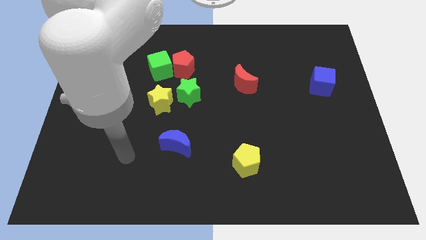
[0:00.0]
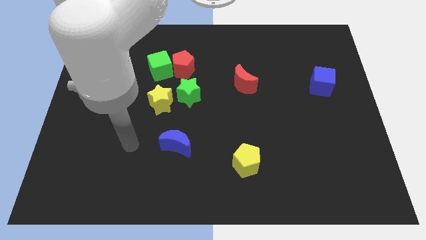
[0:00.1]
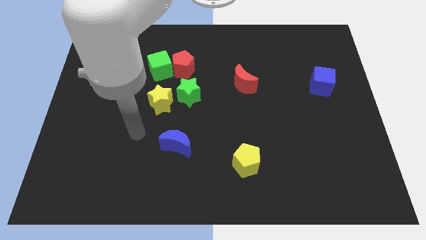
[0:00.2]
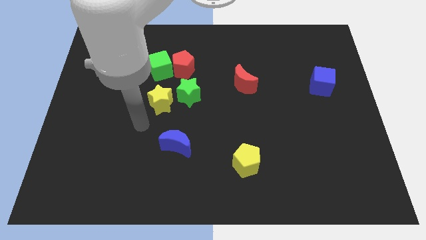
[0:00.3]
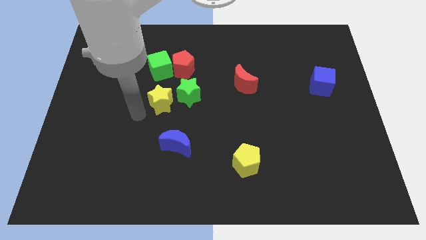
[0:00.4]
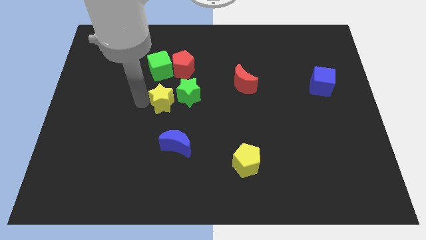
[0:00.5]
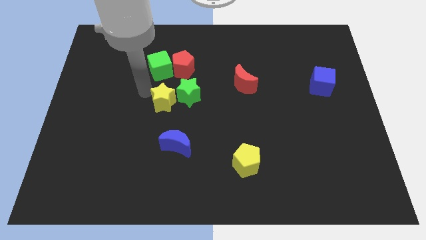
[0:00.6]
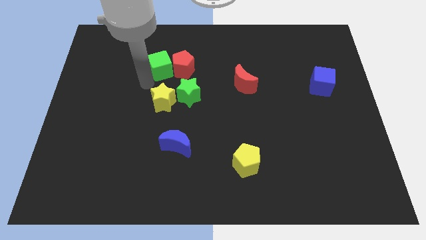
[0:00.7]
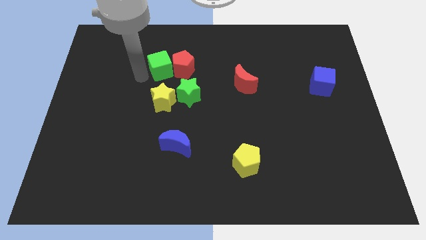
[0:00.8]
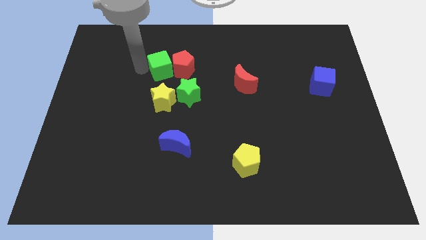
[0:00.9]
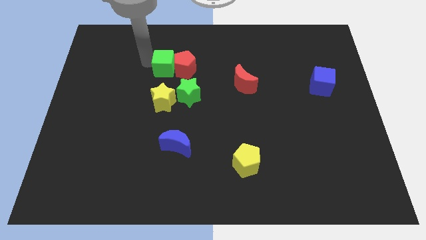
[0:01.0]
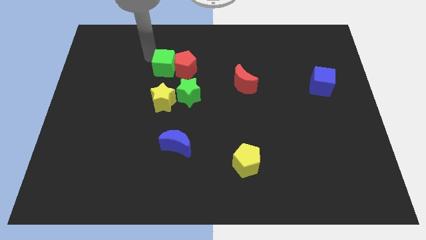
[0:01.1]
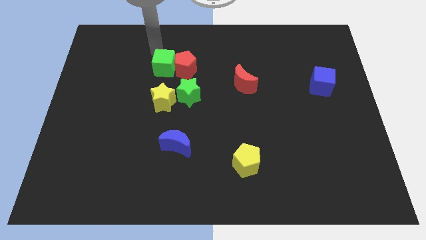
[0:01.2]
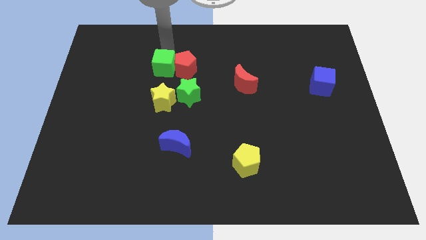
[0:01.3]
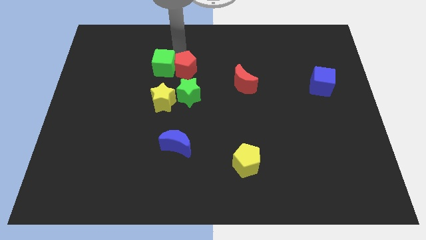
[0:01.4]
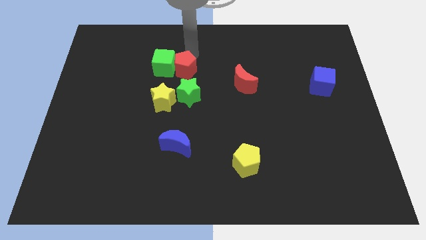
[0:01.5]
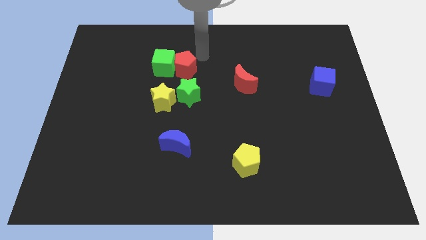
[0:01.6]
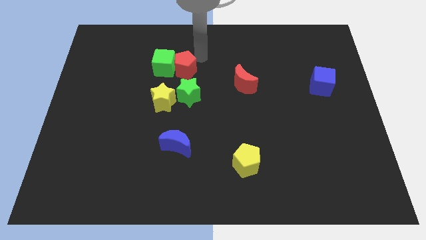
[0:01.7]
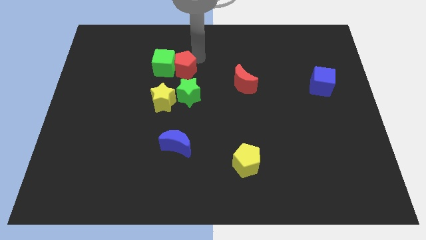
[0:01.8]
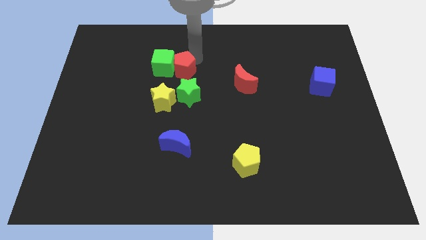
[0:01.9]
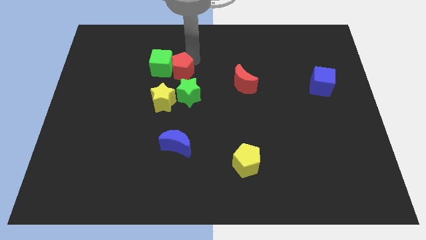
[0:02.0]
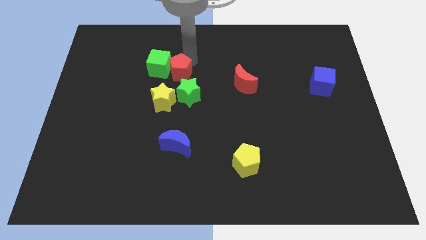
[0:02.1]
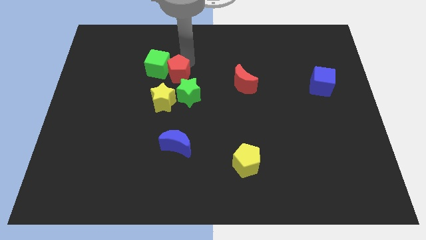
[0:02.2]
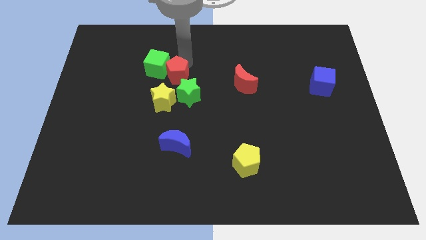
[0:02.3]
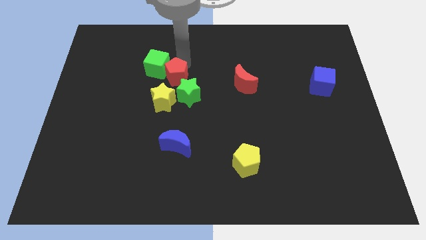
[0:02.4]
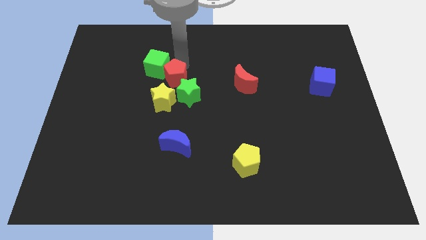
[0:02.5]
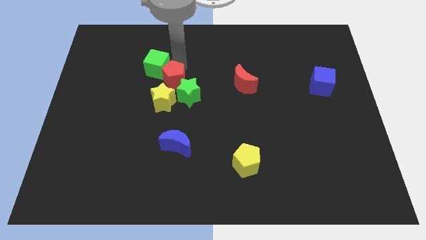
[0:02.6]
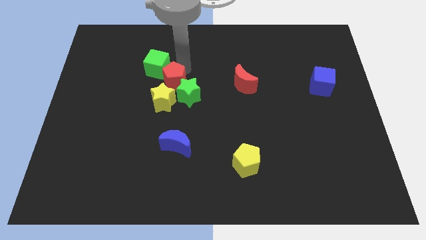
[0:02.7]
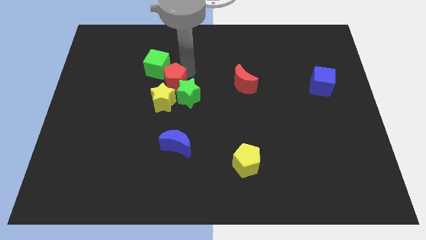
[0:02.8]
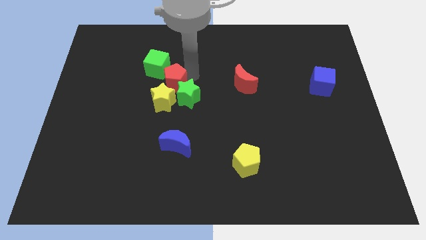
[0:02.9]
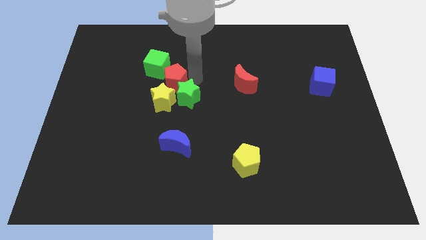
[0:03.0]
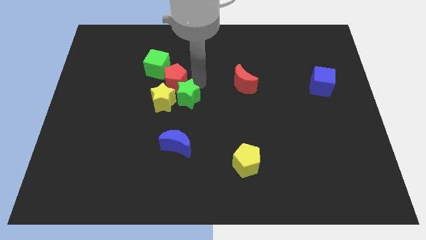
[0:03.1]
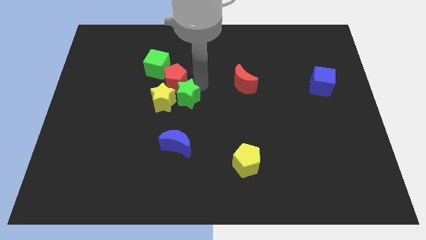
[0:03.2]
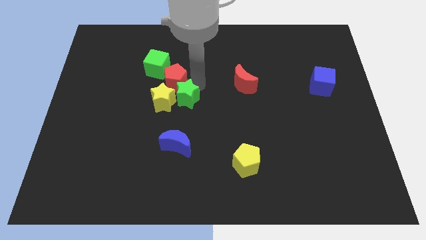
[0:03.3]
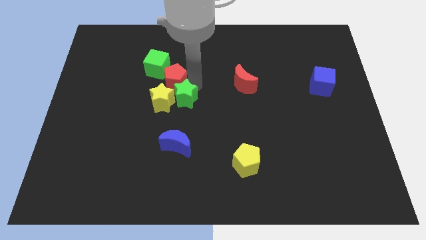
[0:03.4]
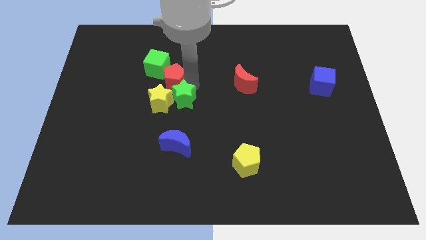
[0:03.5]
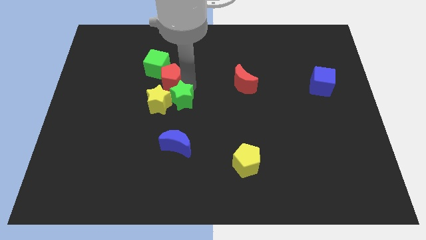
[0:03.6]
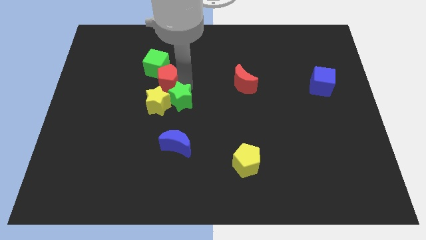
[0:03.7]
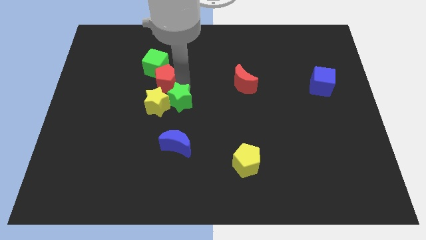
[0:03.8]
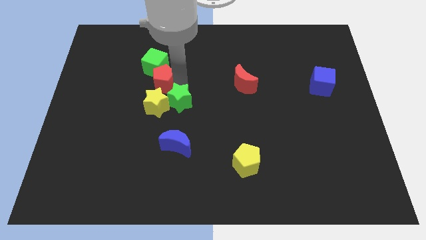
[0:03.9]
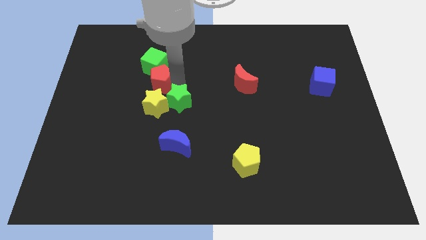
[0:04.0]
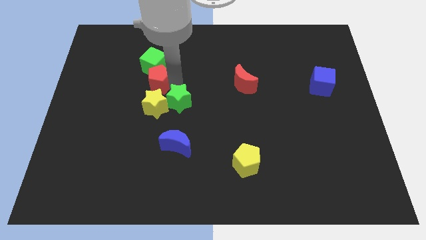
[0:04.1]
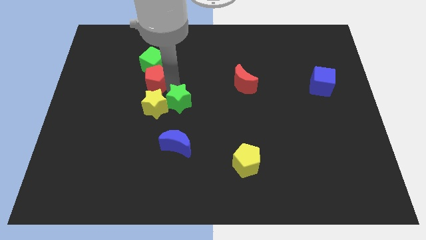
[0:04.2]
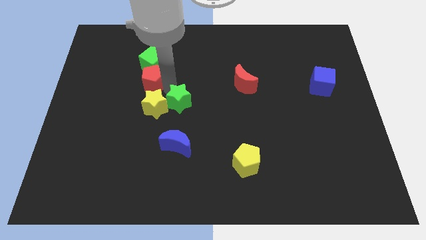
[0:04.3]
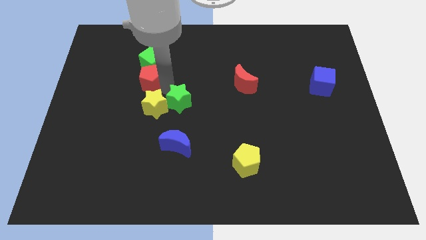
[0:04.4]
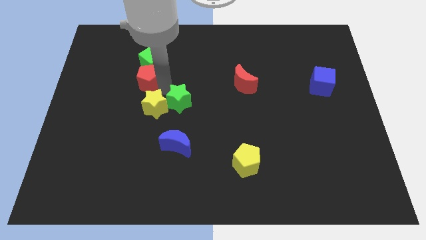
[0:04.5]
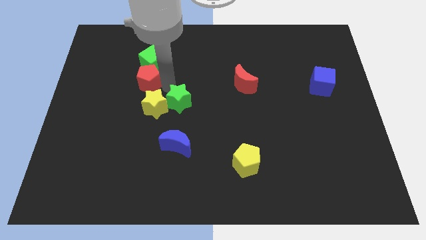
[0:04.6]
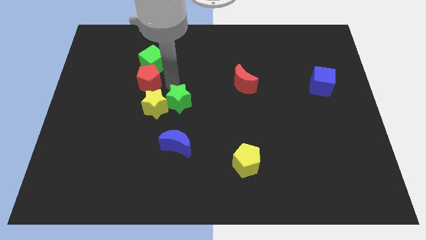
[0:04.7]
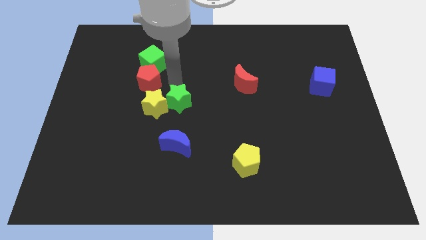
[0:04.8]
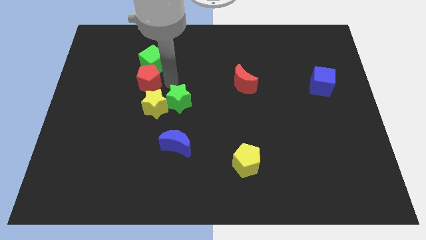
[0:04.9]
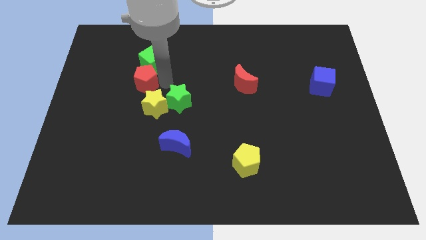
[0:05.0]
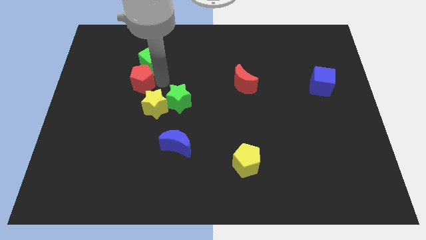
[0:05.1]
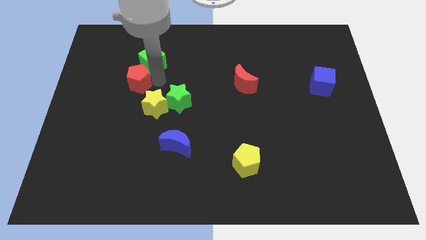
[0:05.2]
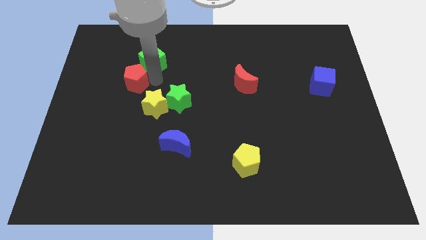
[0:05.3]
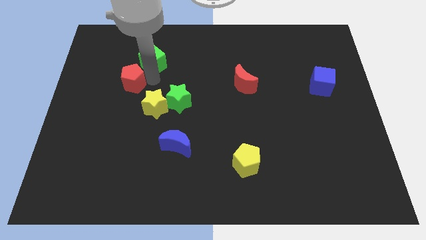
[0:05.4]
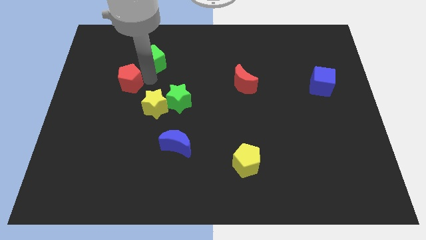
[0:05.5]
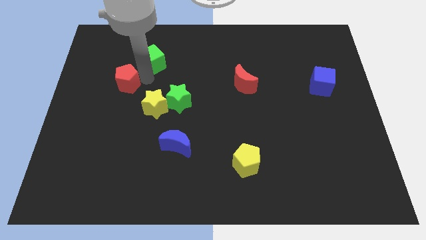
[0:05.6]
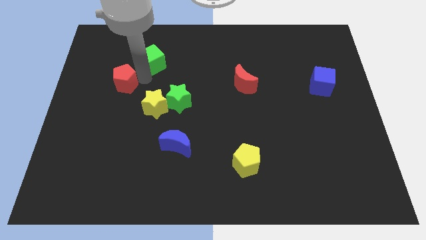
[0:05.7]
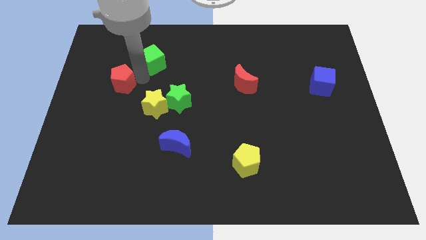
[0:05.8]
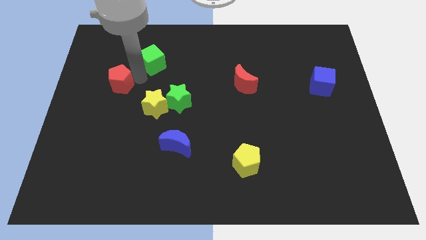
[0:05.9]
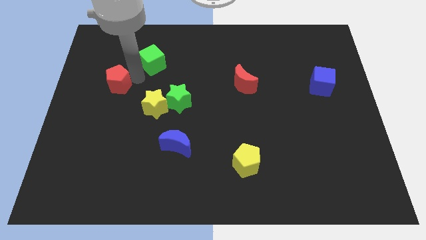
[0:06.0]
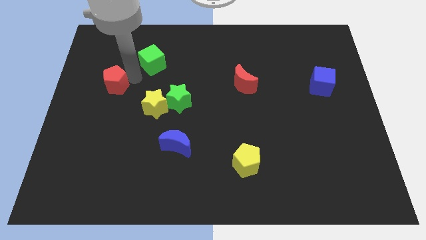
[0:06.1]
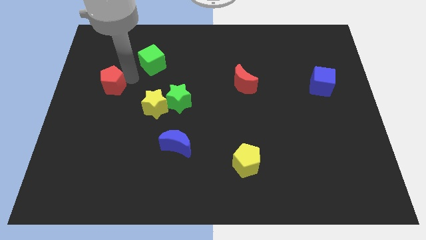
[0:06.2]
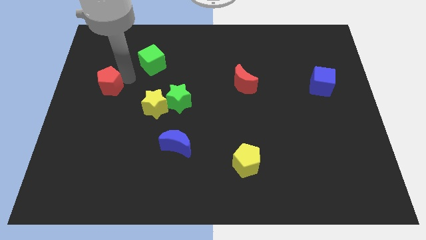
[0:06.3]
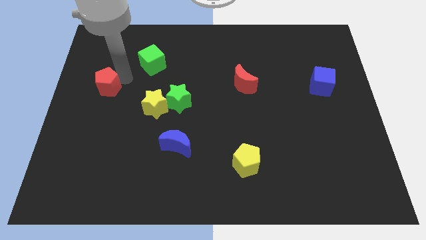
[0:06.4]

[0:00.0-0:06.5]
push the red pentagon to the center left

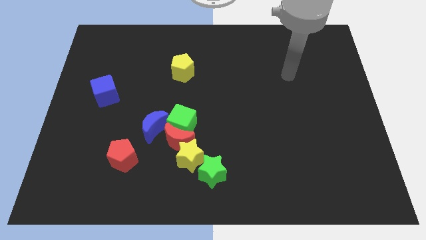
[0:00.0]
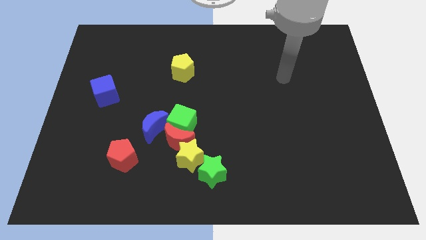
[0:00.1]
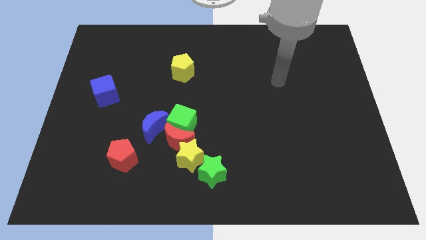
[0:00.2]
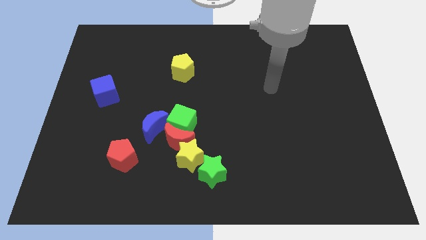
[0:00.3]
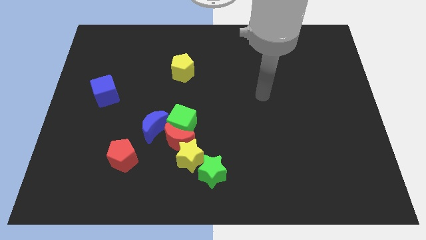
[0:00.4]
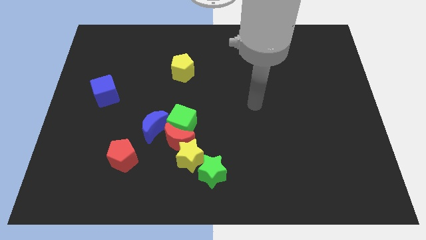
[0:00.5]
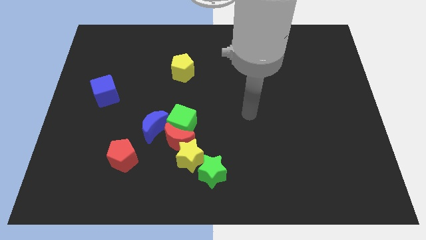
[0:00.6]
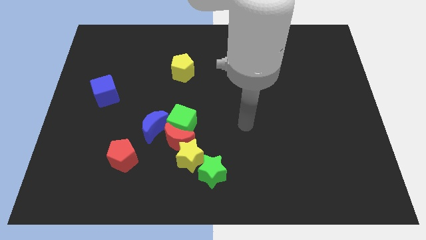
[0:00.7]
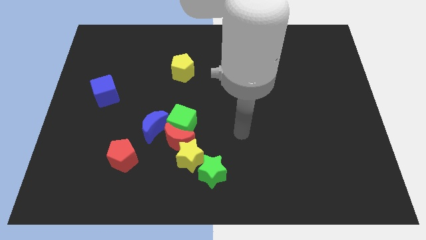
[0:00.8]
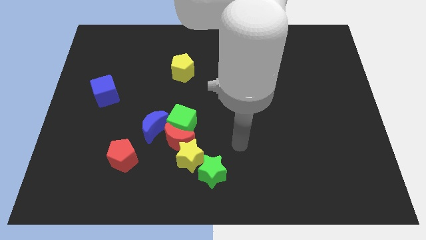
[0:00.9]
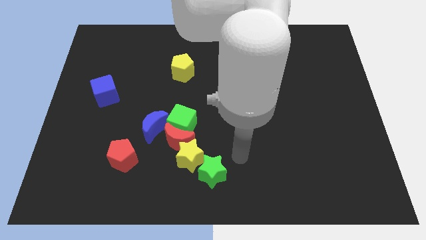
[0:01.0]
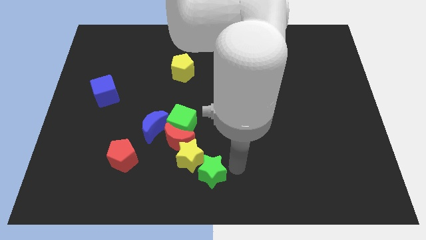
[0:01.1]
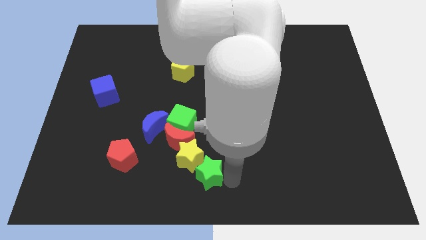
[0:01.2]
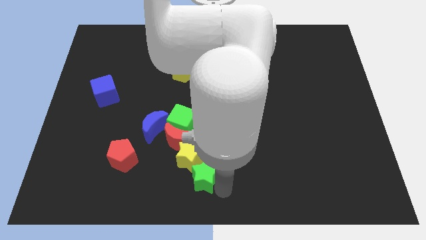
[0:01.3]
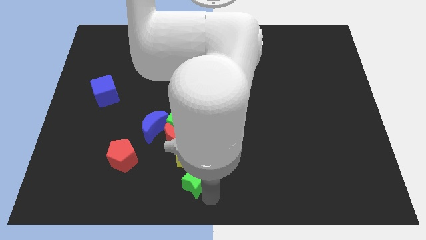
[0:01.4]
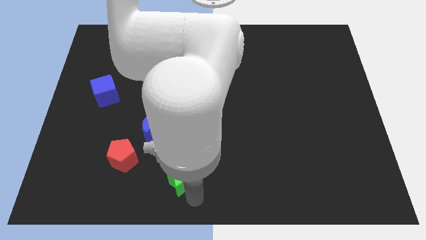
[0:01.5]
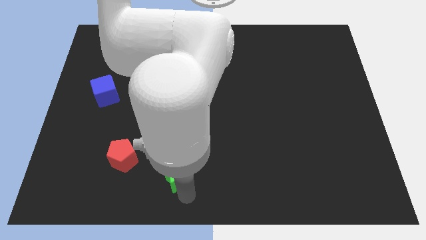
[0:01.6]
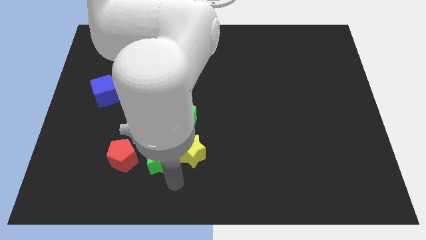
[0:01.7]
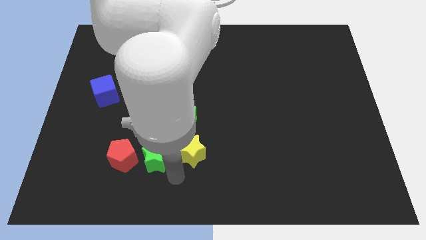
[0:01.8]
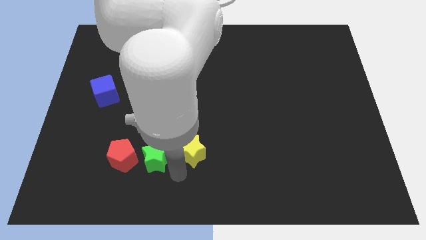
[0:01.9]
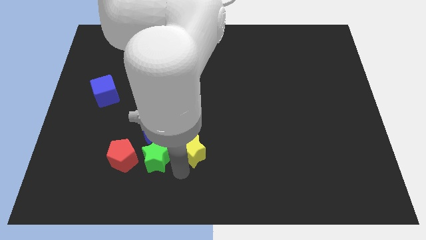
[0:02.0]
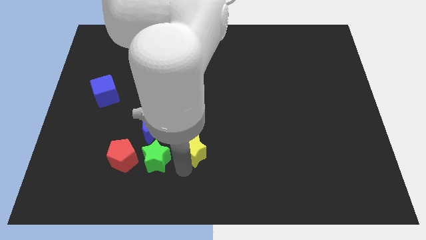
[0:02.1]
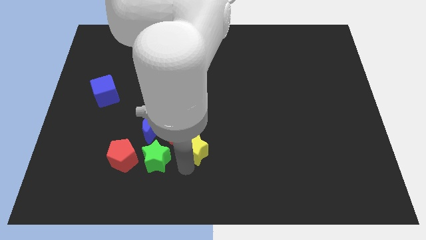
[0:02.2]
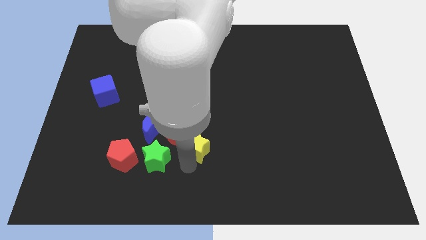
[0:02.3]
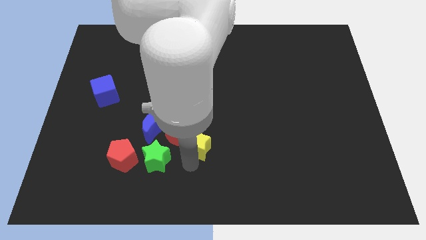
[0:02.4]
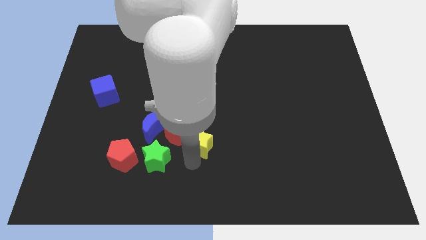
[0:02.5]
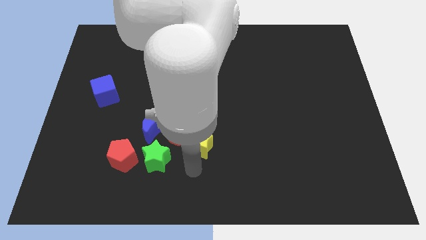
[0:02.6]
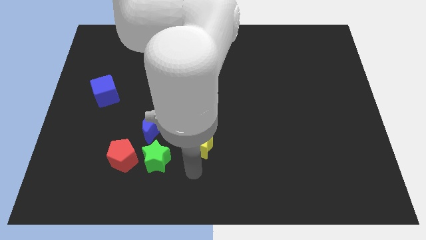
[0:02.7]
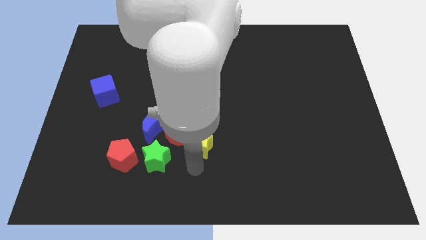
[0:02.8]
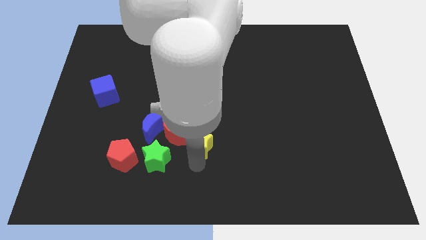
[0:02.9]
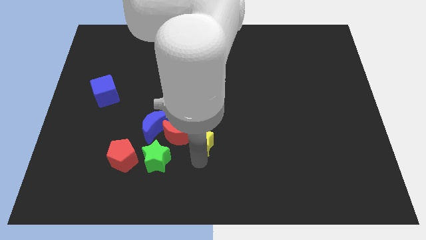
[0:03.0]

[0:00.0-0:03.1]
put the yellow star to the middle
